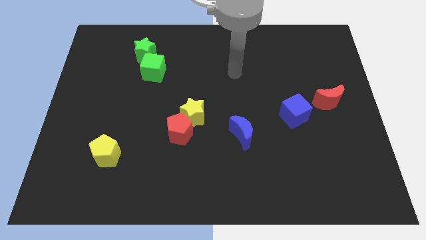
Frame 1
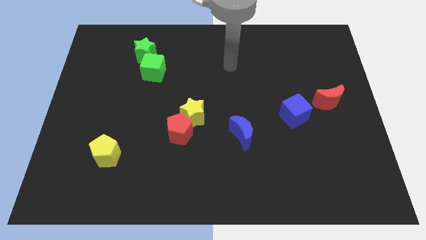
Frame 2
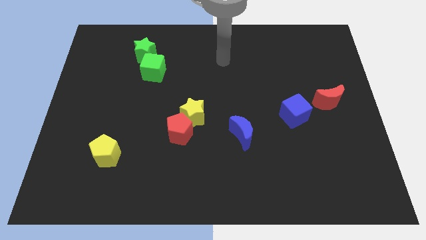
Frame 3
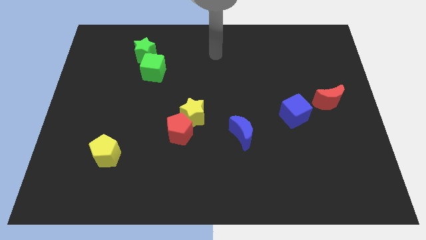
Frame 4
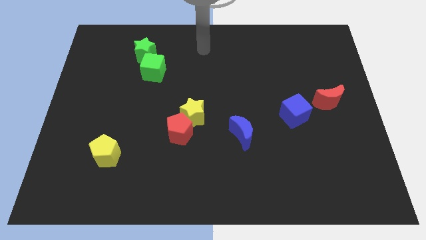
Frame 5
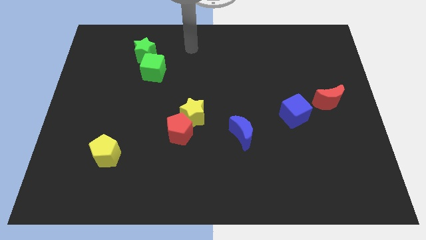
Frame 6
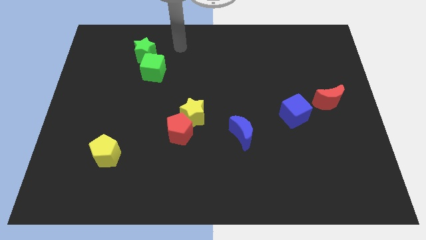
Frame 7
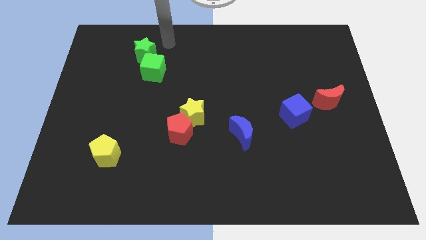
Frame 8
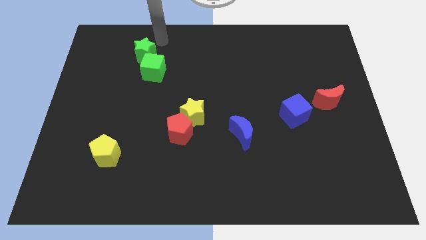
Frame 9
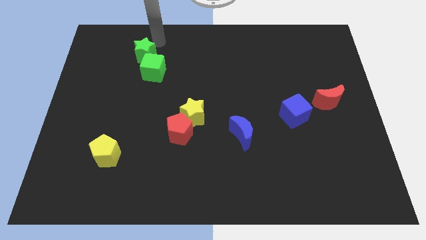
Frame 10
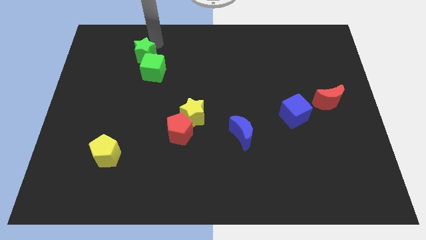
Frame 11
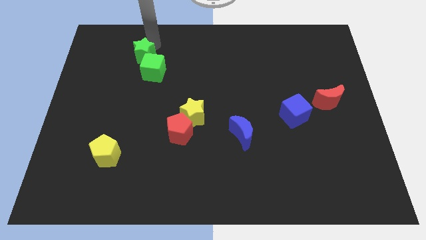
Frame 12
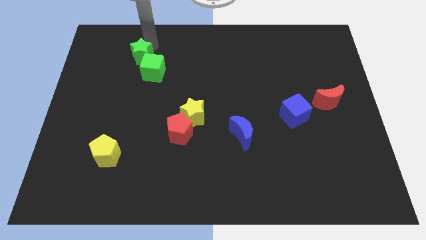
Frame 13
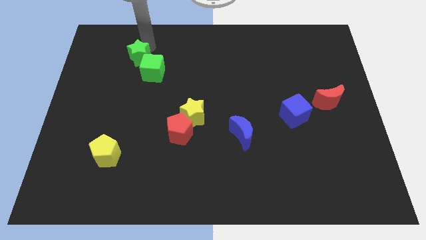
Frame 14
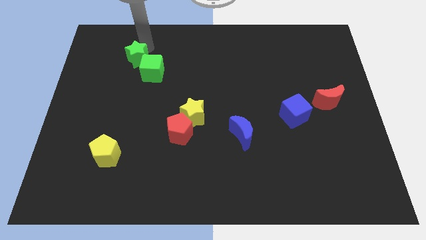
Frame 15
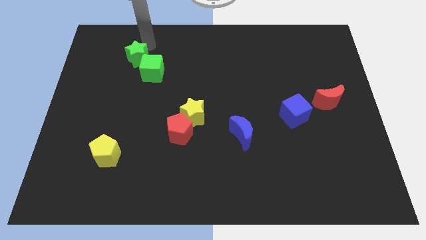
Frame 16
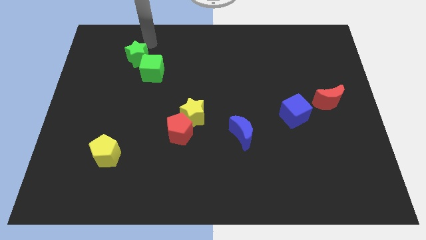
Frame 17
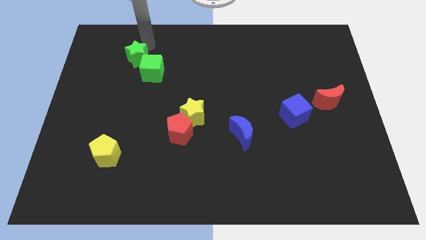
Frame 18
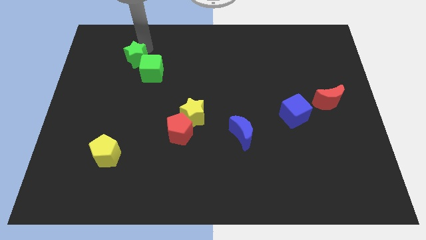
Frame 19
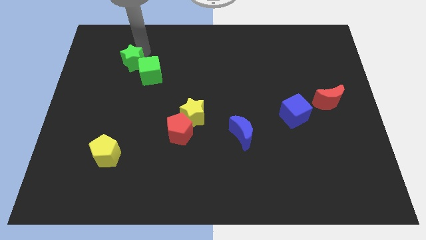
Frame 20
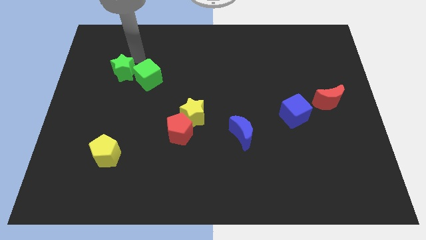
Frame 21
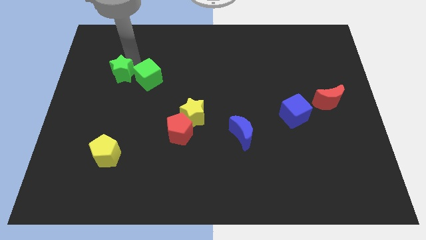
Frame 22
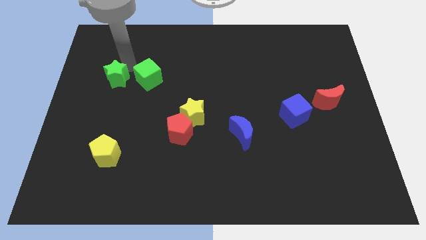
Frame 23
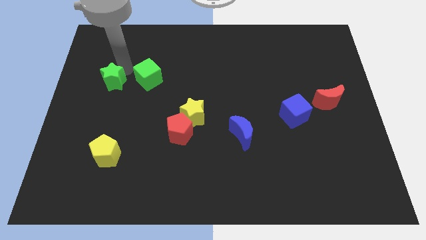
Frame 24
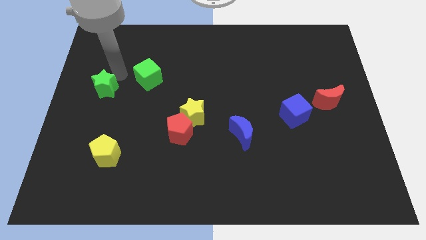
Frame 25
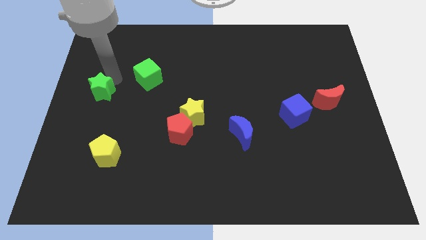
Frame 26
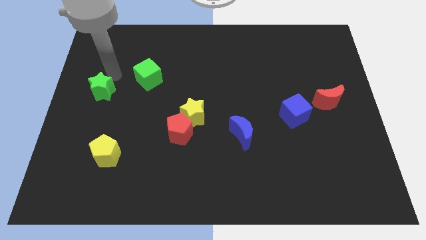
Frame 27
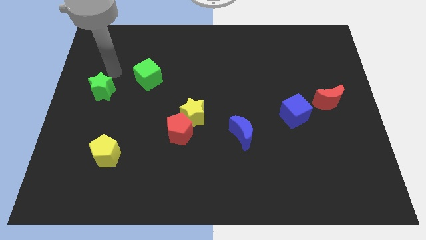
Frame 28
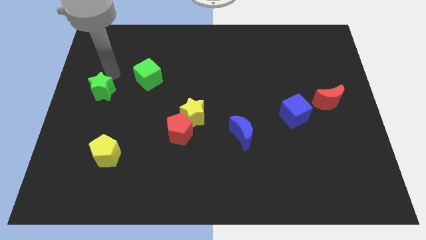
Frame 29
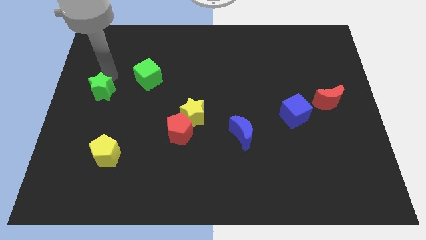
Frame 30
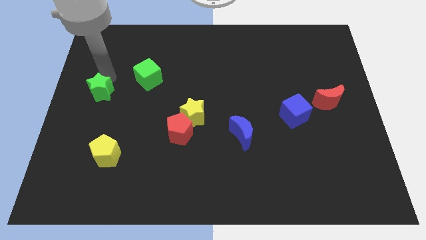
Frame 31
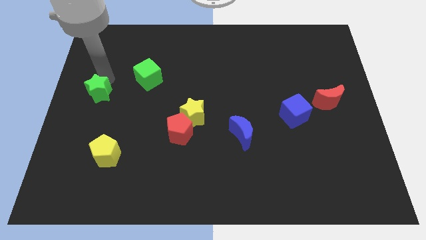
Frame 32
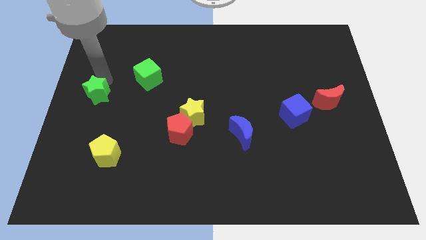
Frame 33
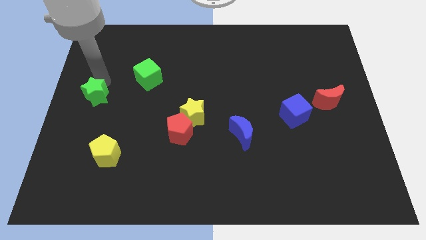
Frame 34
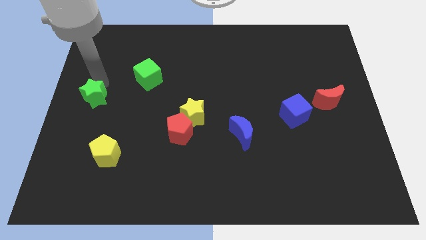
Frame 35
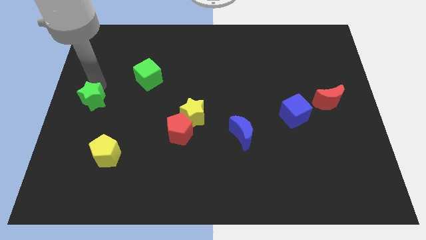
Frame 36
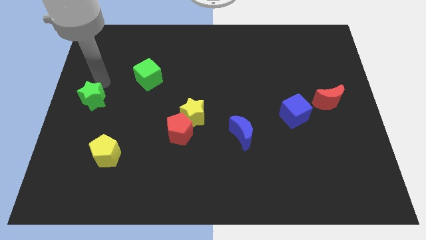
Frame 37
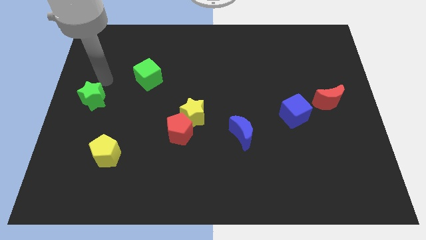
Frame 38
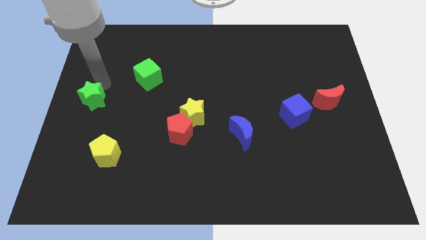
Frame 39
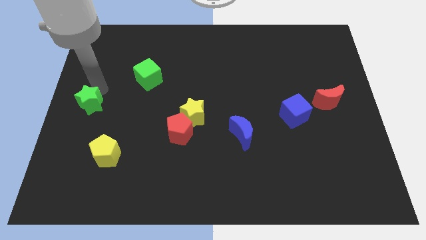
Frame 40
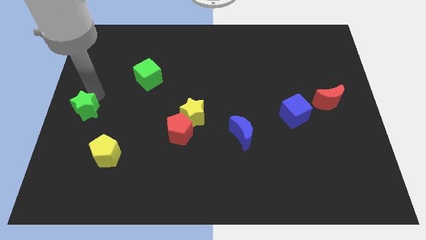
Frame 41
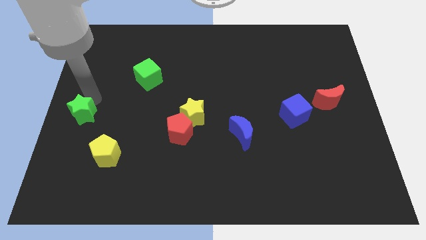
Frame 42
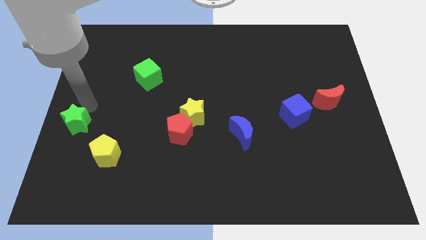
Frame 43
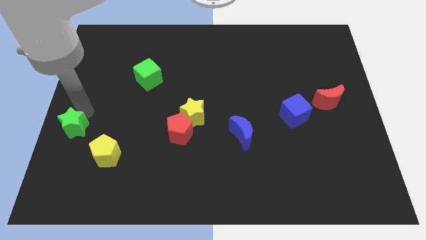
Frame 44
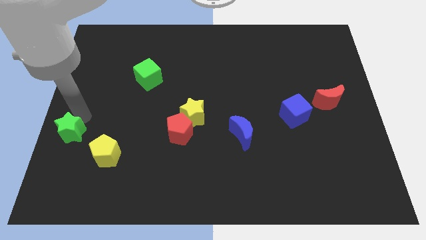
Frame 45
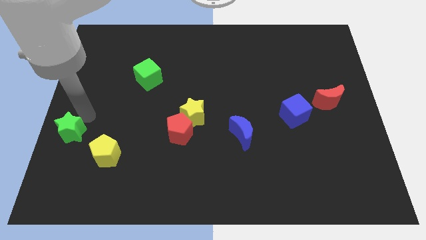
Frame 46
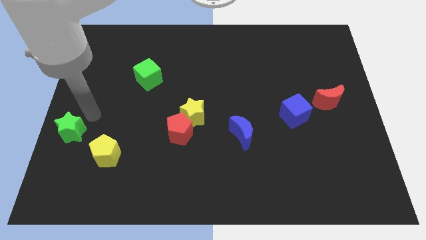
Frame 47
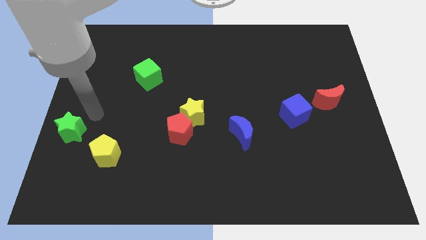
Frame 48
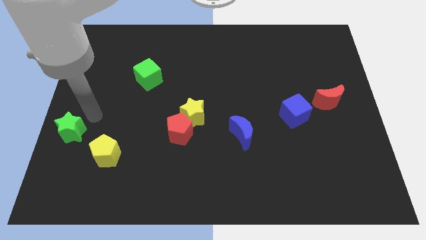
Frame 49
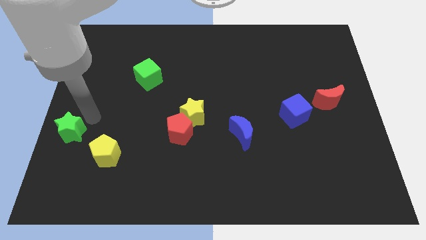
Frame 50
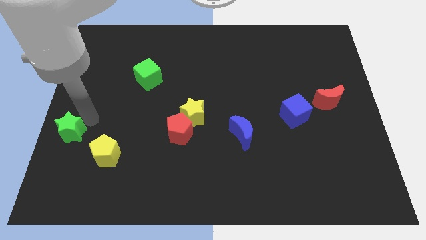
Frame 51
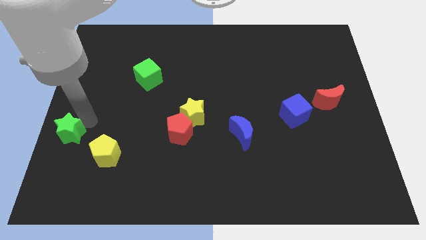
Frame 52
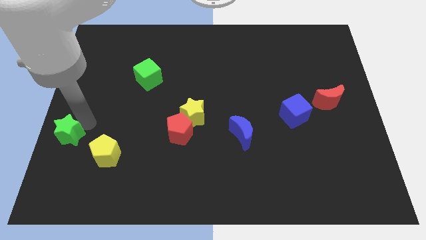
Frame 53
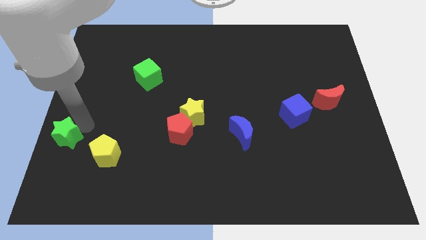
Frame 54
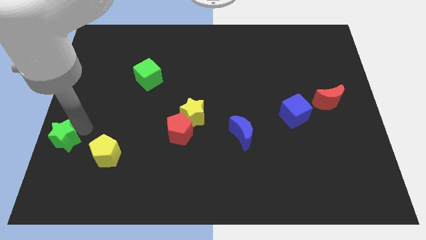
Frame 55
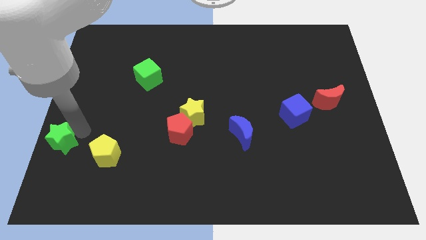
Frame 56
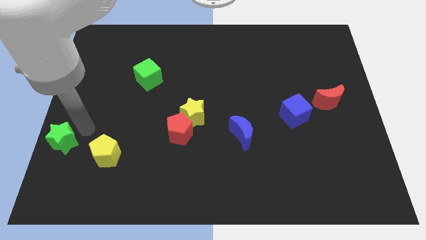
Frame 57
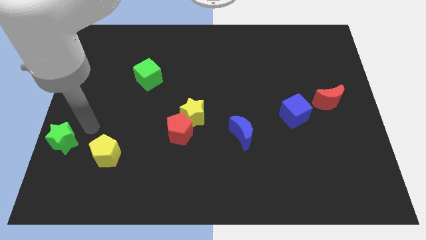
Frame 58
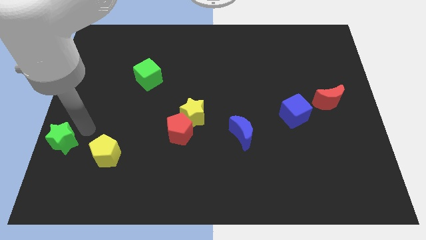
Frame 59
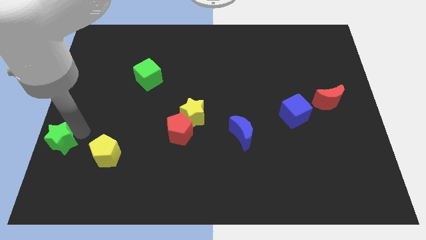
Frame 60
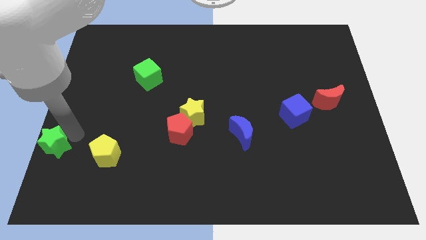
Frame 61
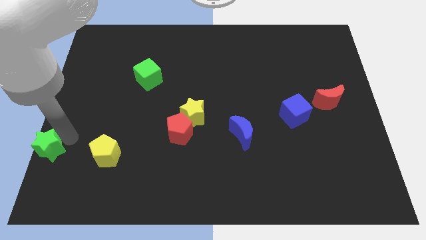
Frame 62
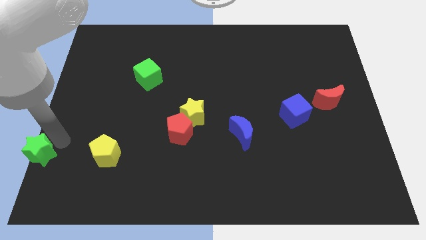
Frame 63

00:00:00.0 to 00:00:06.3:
slide the green star to the bottom left of the board

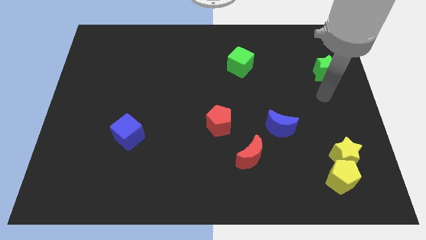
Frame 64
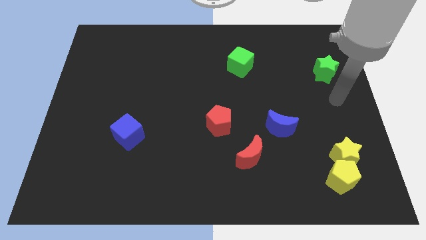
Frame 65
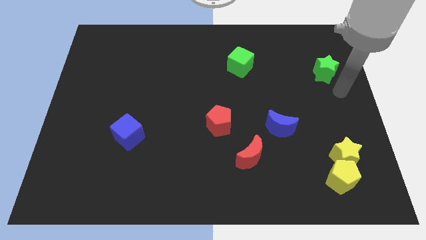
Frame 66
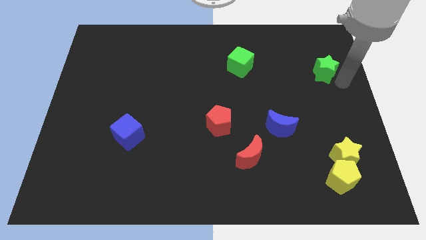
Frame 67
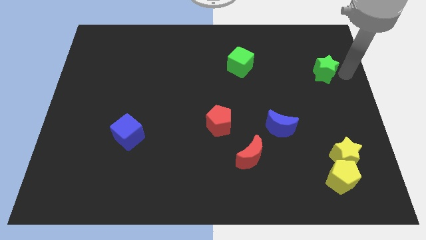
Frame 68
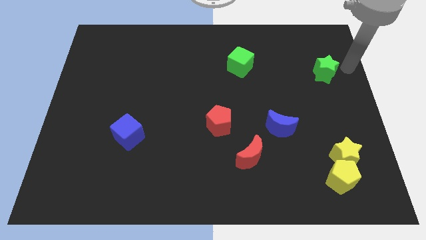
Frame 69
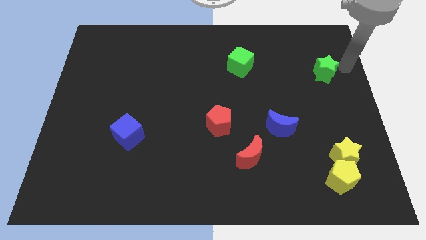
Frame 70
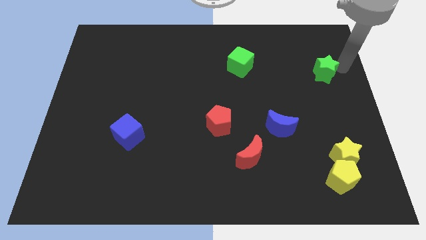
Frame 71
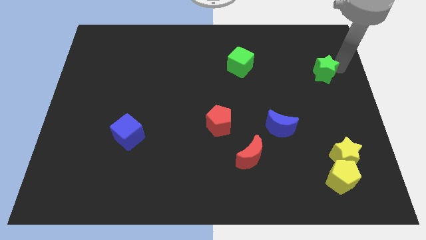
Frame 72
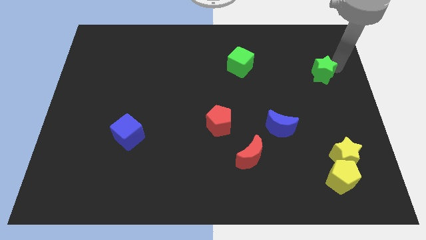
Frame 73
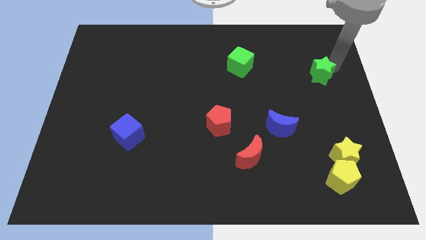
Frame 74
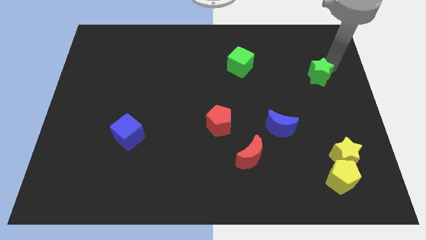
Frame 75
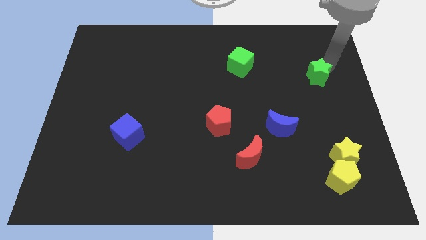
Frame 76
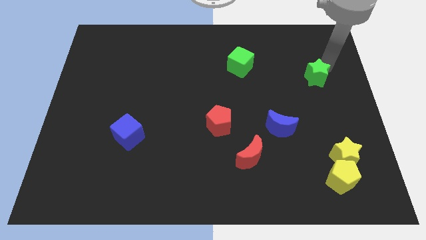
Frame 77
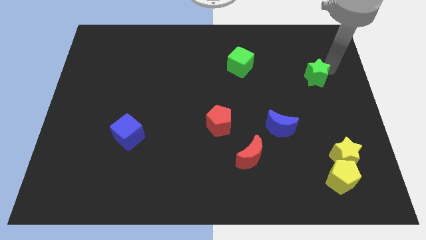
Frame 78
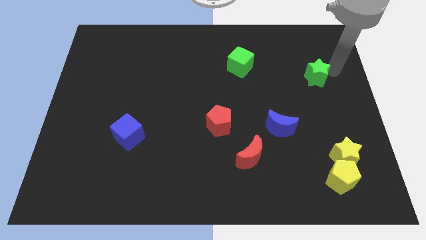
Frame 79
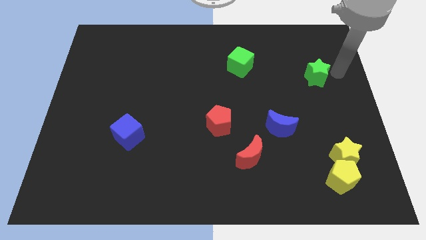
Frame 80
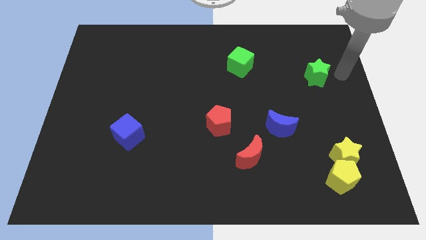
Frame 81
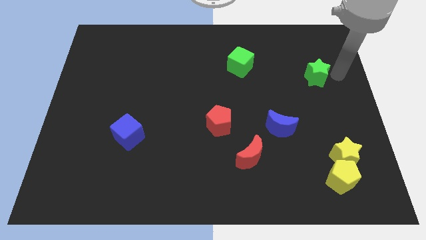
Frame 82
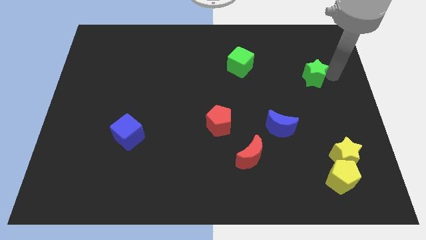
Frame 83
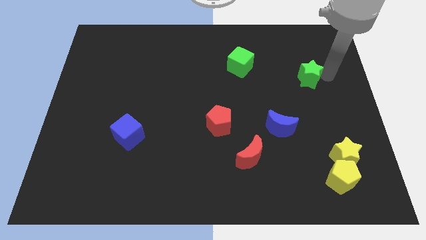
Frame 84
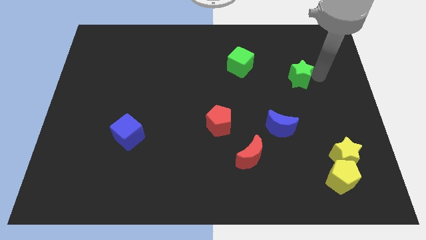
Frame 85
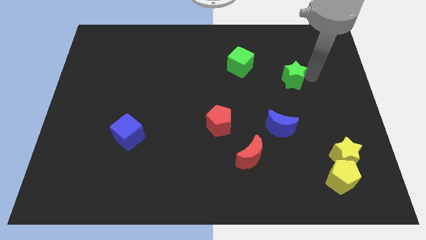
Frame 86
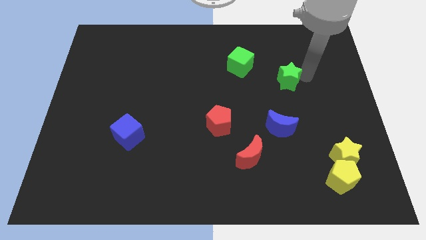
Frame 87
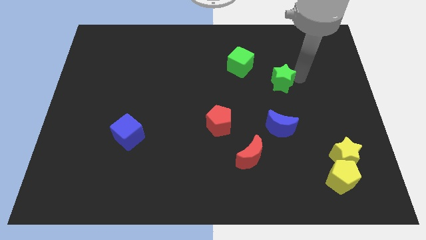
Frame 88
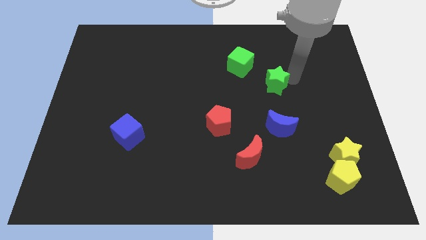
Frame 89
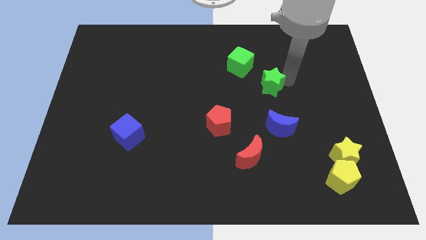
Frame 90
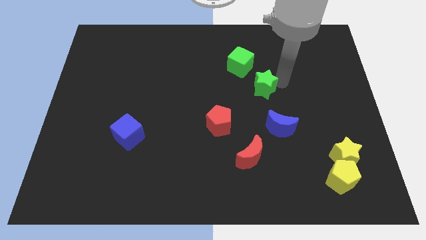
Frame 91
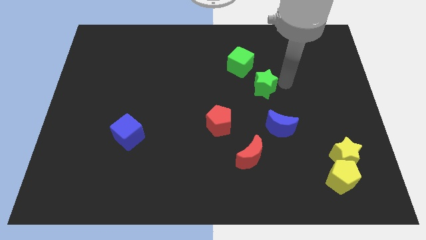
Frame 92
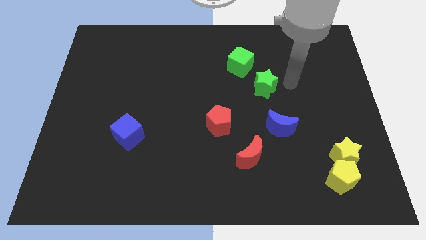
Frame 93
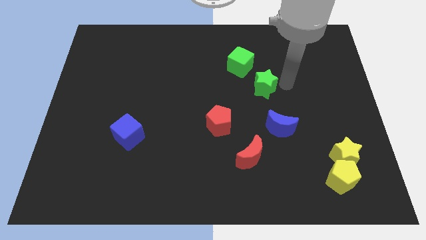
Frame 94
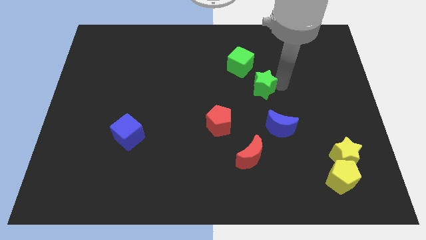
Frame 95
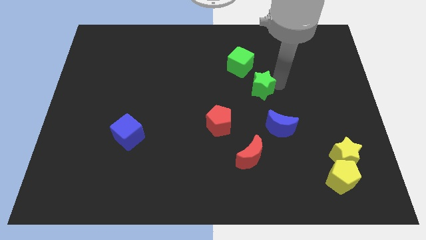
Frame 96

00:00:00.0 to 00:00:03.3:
put the green star to the center
